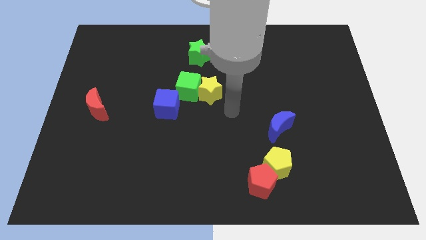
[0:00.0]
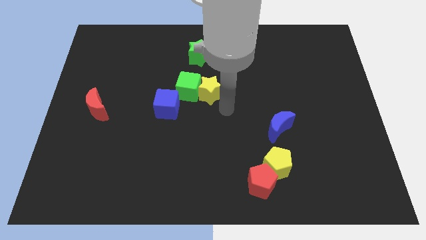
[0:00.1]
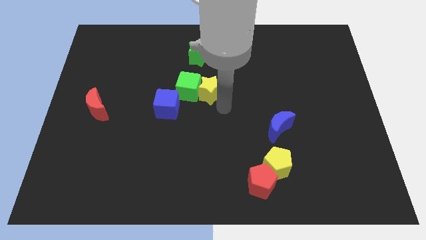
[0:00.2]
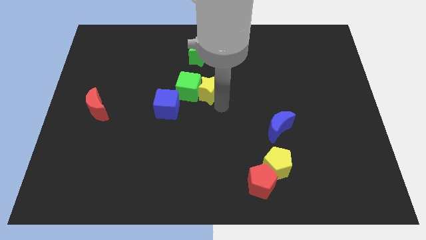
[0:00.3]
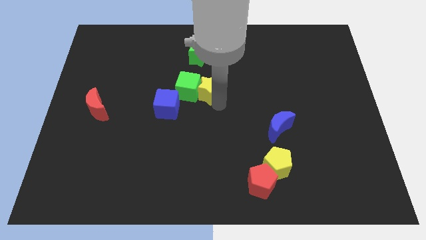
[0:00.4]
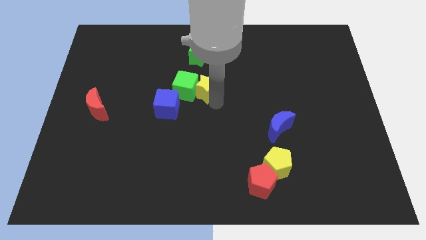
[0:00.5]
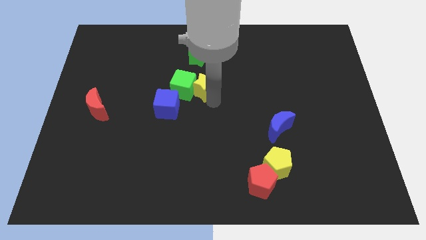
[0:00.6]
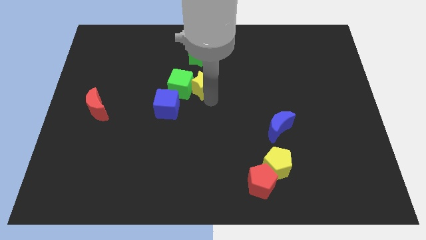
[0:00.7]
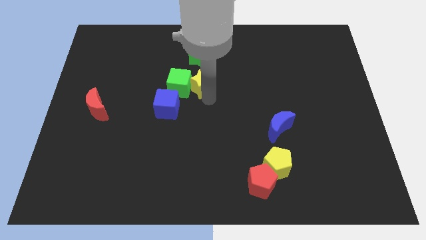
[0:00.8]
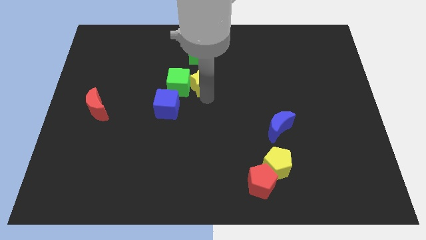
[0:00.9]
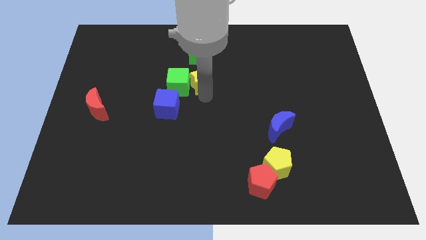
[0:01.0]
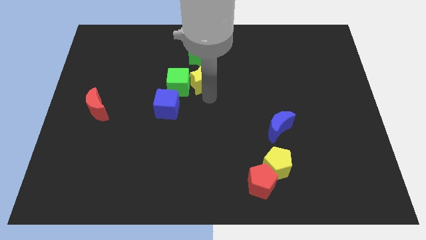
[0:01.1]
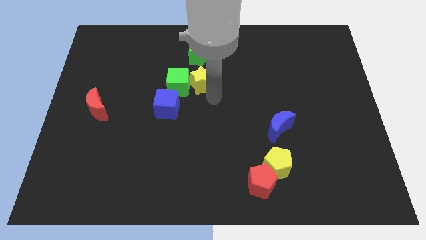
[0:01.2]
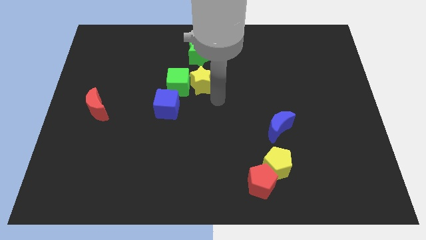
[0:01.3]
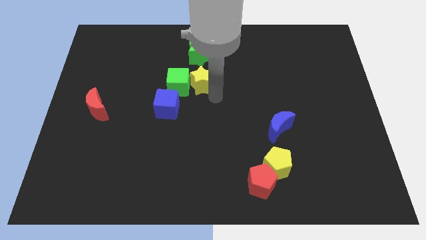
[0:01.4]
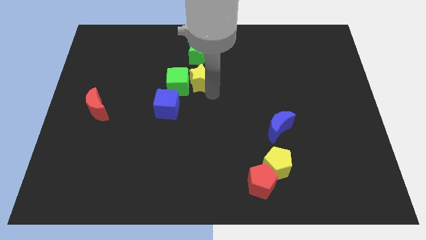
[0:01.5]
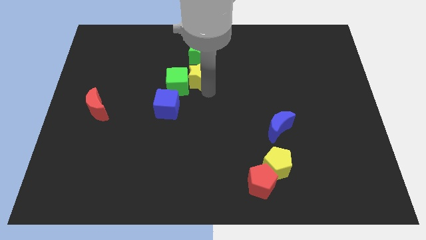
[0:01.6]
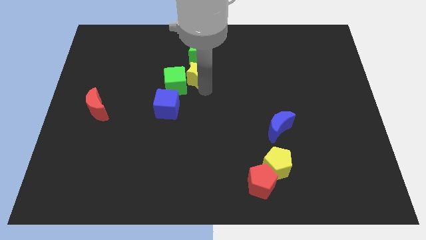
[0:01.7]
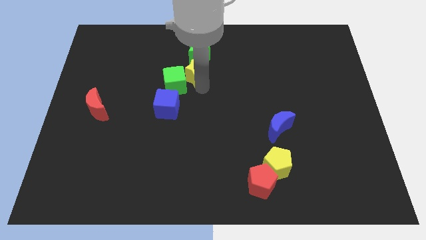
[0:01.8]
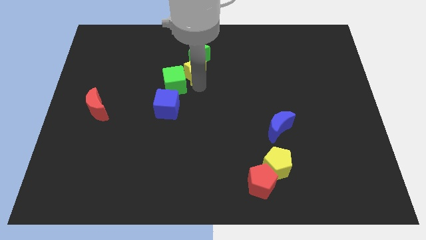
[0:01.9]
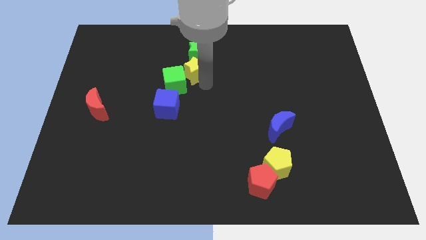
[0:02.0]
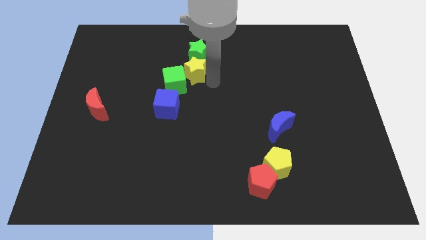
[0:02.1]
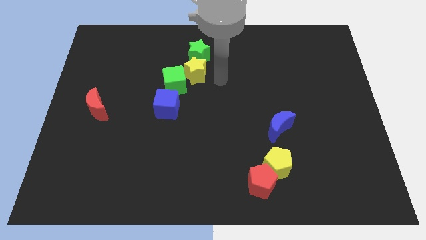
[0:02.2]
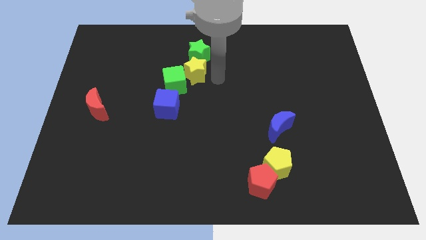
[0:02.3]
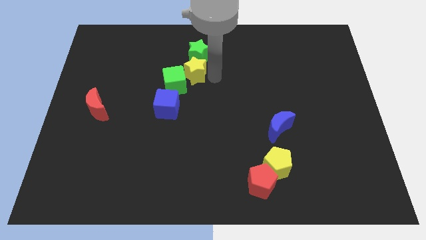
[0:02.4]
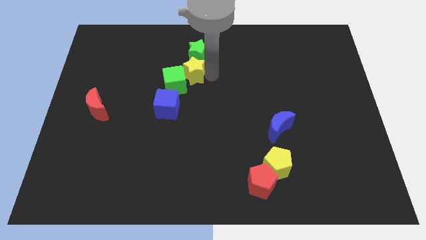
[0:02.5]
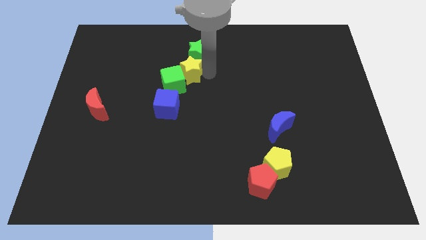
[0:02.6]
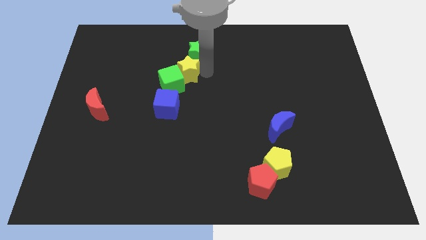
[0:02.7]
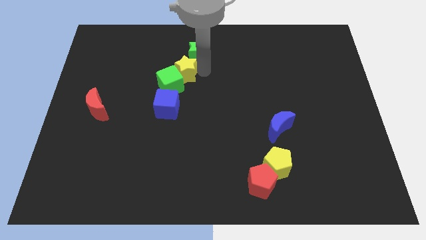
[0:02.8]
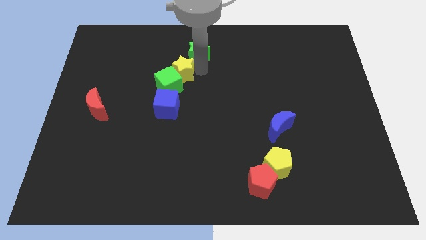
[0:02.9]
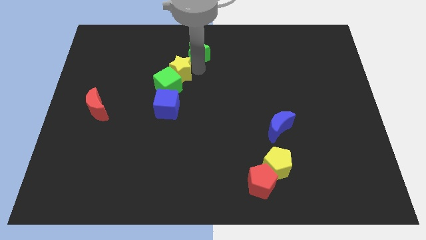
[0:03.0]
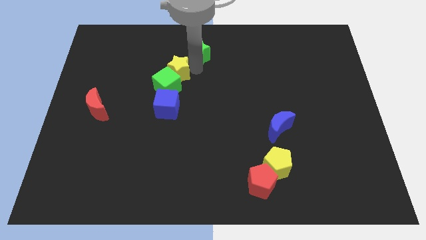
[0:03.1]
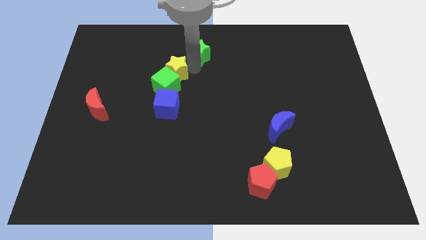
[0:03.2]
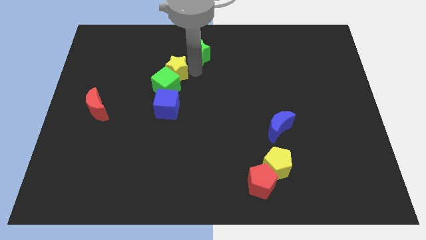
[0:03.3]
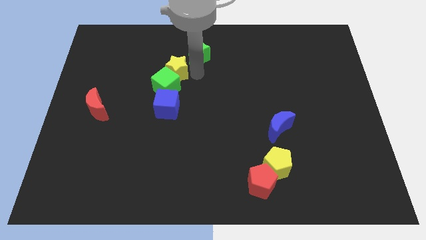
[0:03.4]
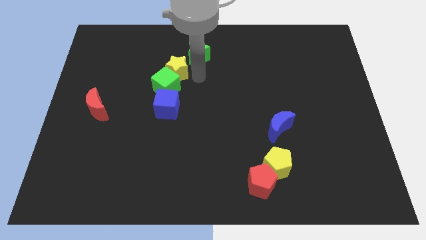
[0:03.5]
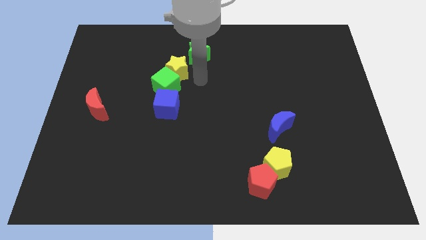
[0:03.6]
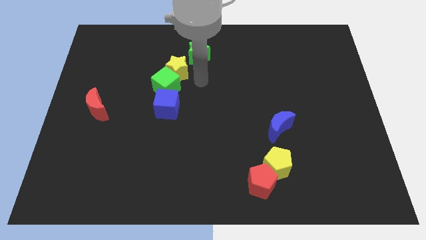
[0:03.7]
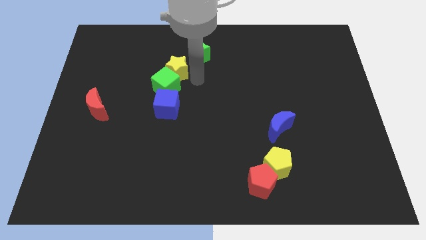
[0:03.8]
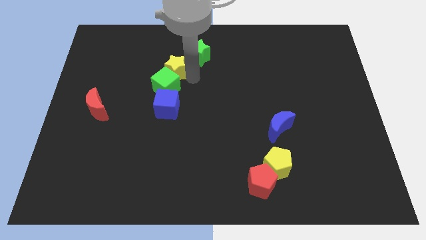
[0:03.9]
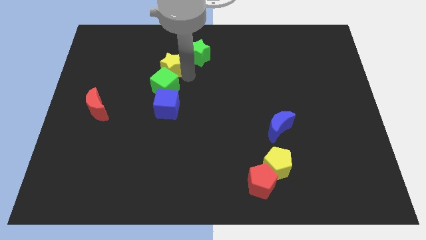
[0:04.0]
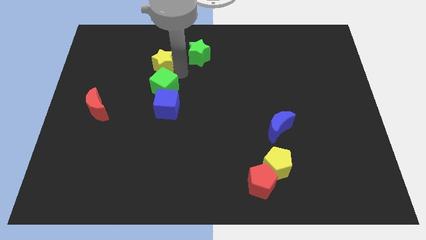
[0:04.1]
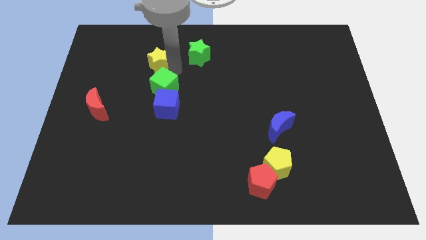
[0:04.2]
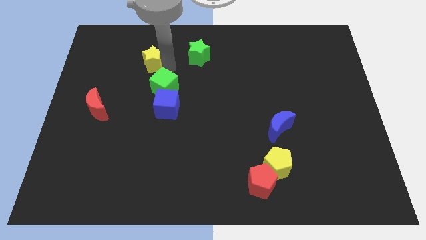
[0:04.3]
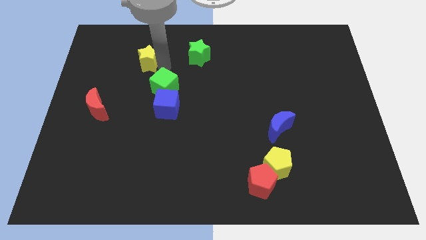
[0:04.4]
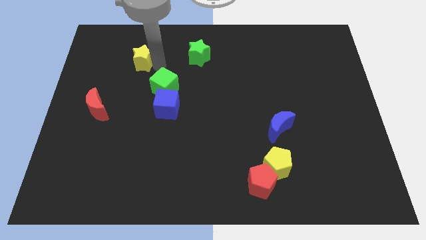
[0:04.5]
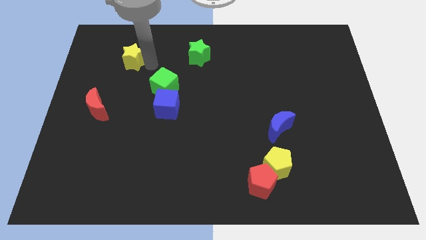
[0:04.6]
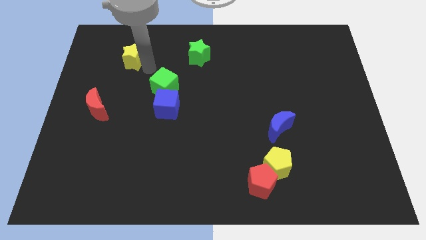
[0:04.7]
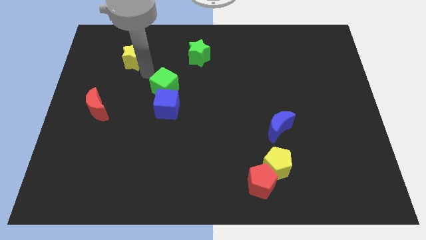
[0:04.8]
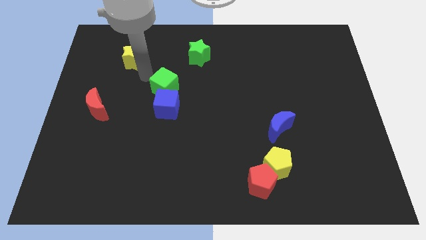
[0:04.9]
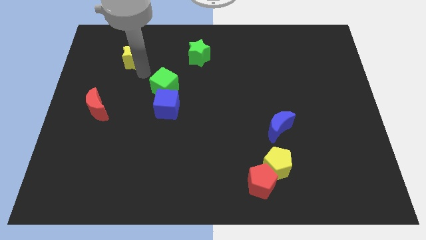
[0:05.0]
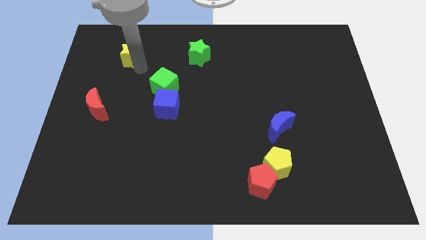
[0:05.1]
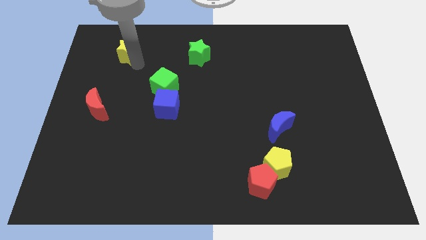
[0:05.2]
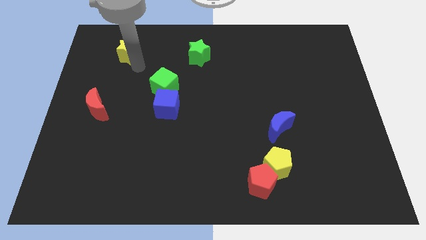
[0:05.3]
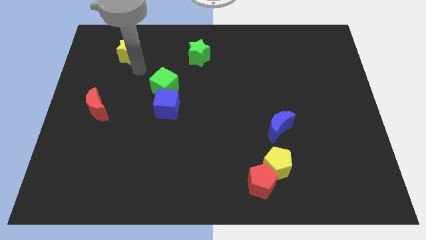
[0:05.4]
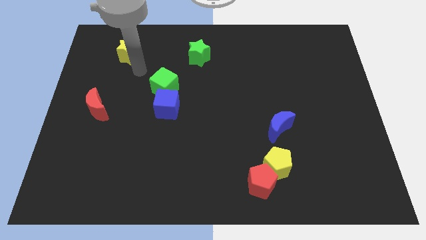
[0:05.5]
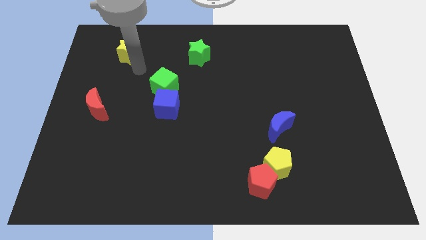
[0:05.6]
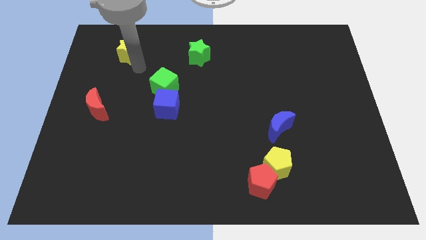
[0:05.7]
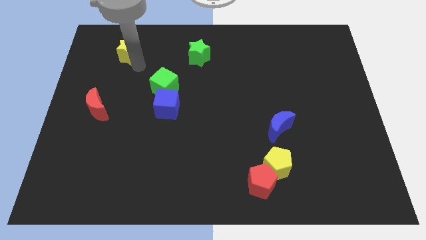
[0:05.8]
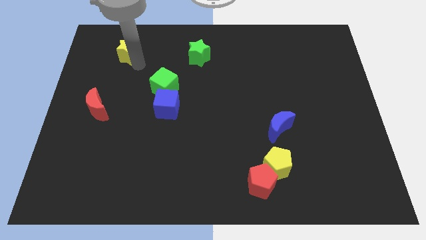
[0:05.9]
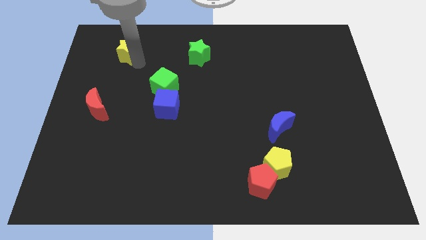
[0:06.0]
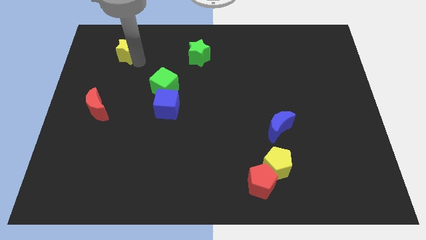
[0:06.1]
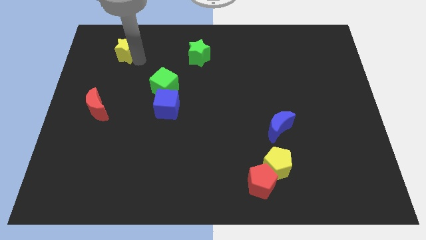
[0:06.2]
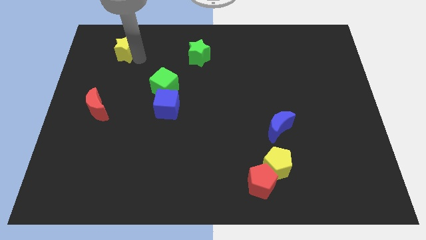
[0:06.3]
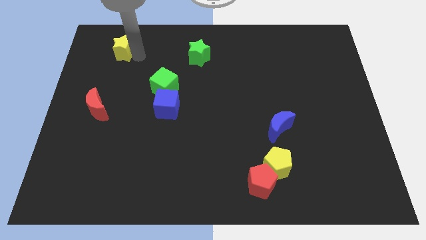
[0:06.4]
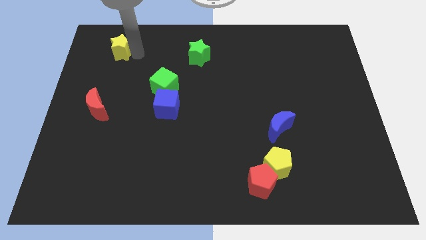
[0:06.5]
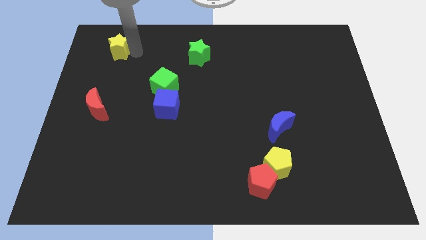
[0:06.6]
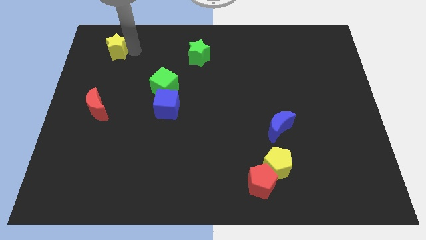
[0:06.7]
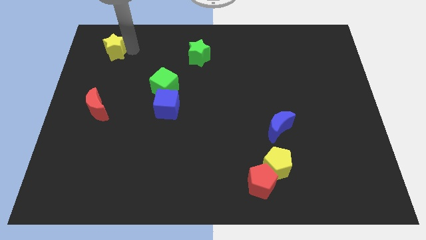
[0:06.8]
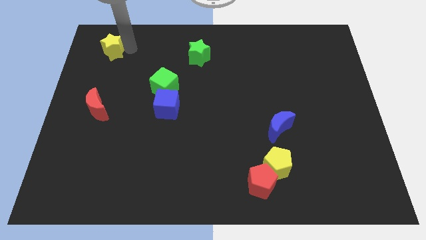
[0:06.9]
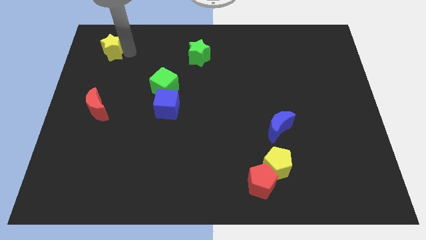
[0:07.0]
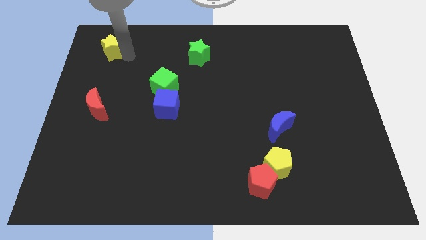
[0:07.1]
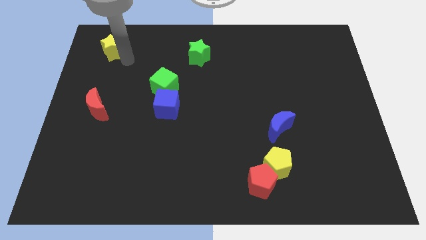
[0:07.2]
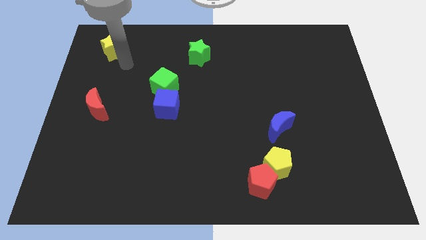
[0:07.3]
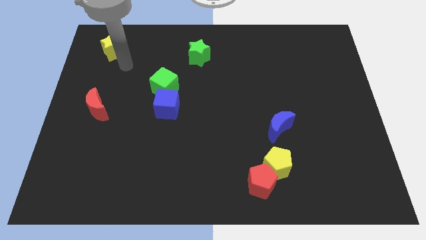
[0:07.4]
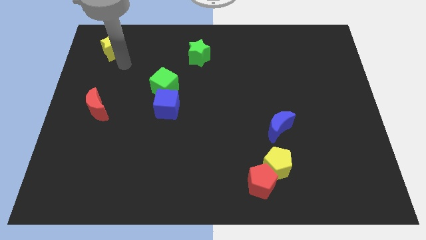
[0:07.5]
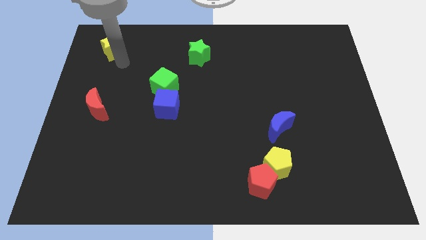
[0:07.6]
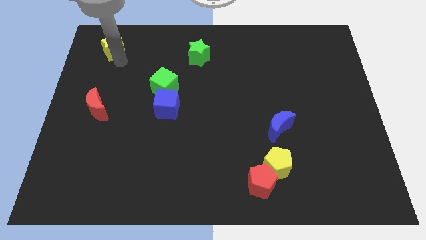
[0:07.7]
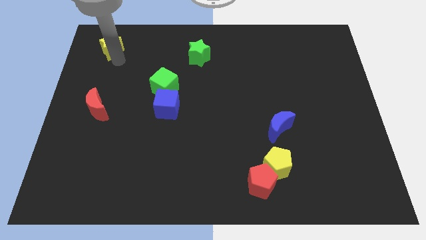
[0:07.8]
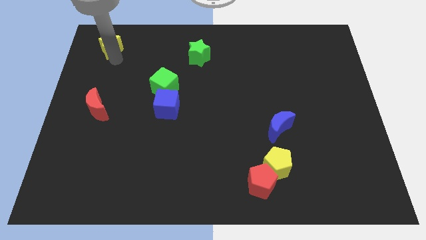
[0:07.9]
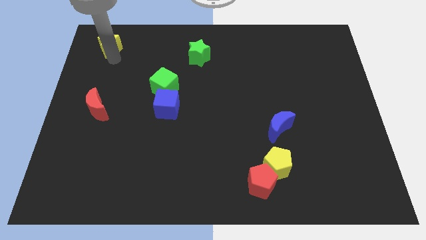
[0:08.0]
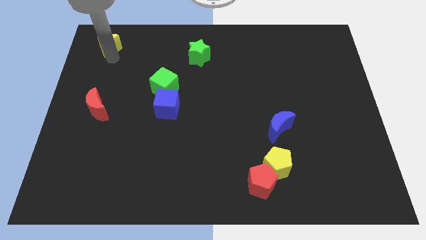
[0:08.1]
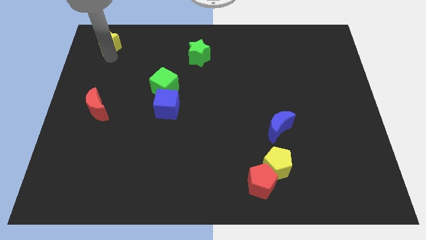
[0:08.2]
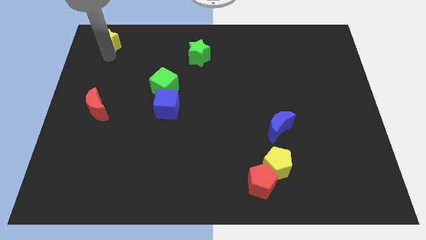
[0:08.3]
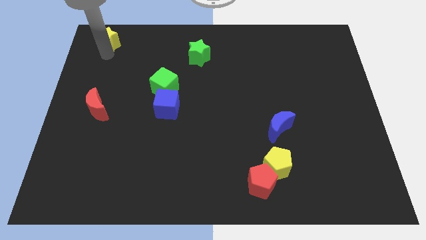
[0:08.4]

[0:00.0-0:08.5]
slide the yellow star to the top left corner
